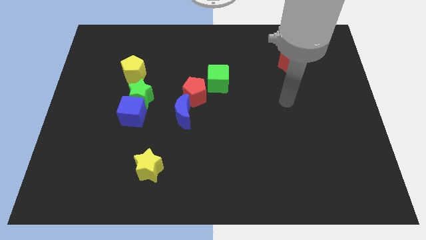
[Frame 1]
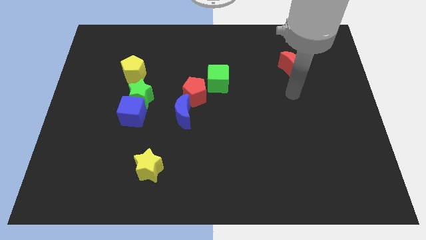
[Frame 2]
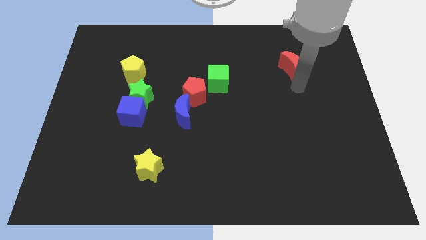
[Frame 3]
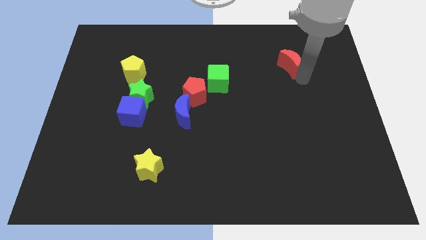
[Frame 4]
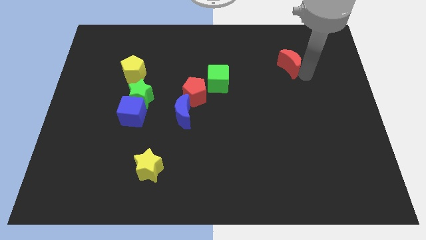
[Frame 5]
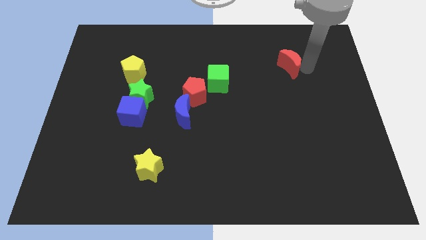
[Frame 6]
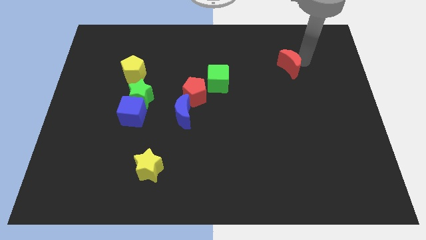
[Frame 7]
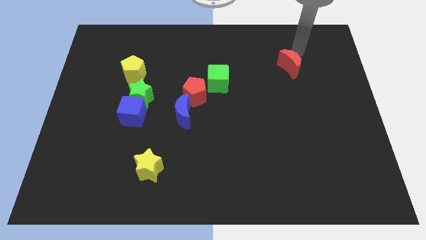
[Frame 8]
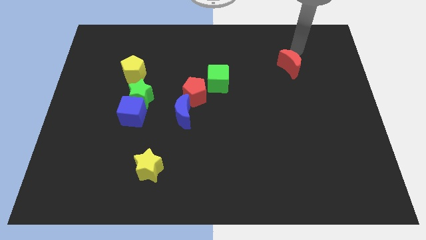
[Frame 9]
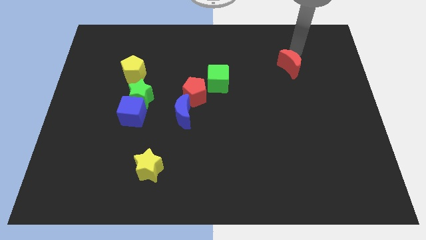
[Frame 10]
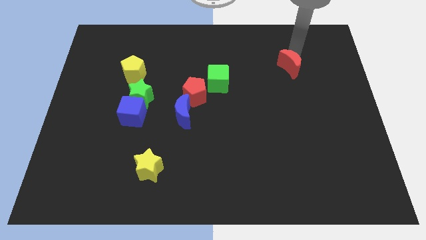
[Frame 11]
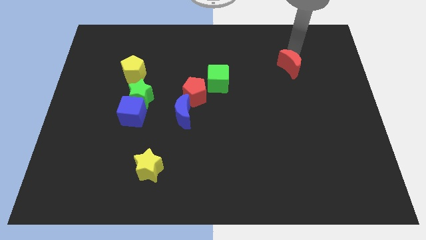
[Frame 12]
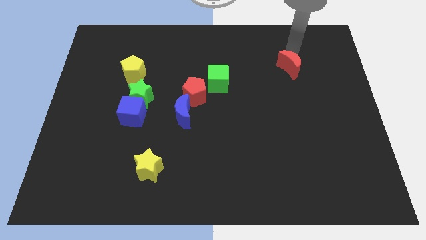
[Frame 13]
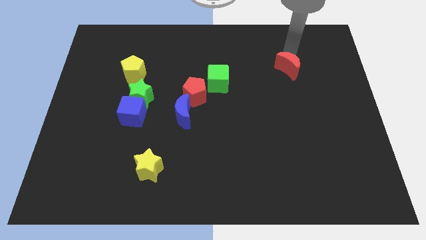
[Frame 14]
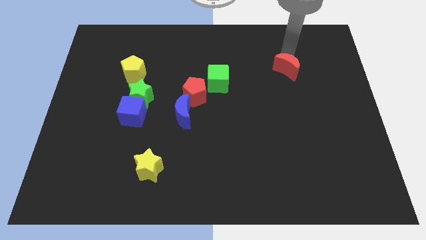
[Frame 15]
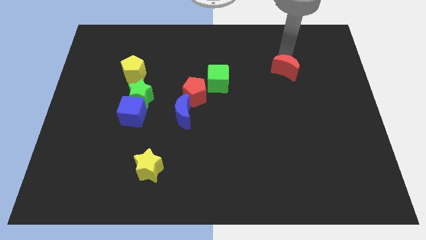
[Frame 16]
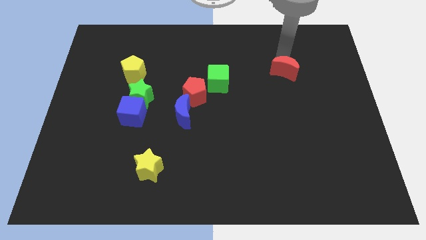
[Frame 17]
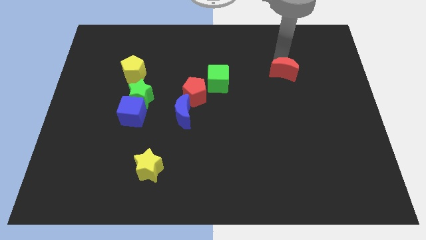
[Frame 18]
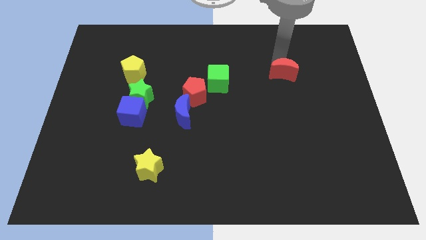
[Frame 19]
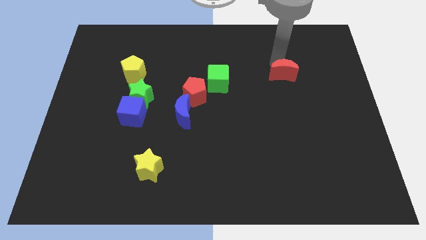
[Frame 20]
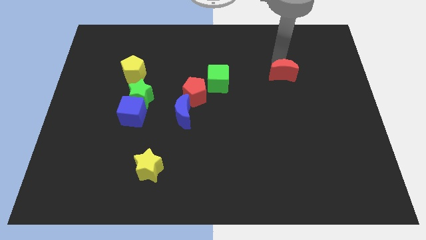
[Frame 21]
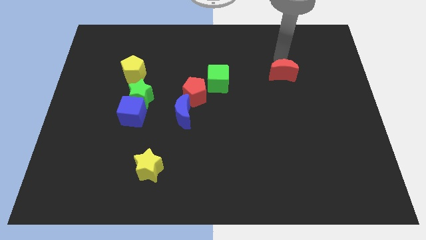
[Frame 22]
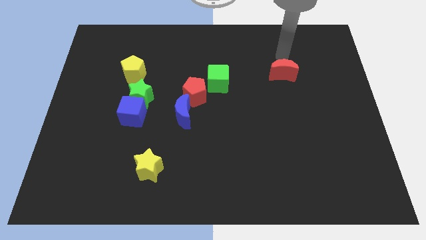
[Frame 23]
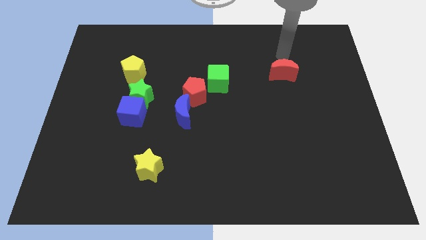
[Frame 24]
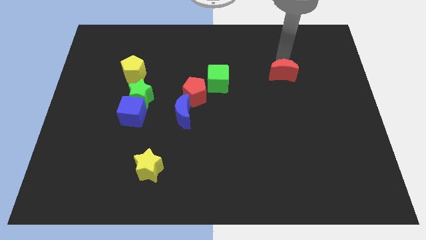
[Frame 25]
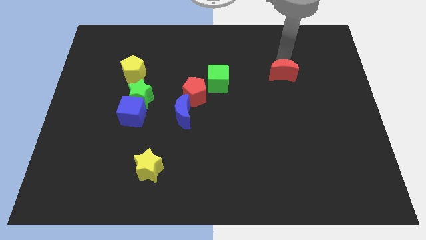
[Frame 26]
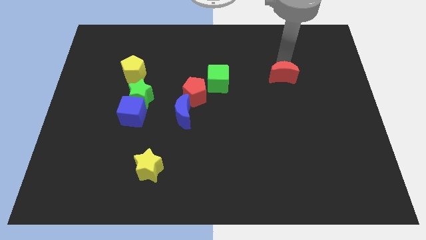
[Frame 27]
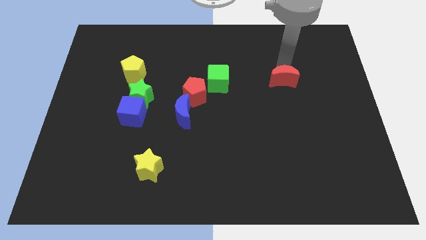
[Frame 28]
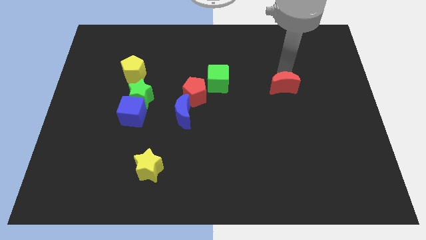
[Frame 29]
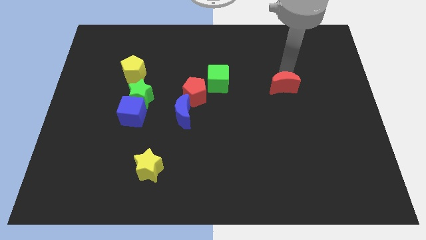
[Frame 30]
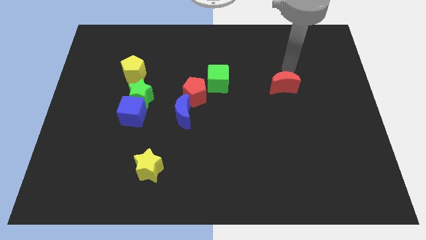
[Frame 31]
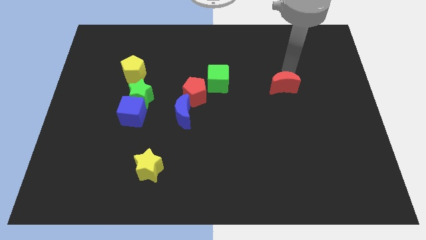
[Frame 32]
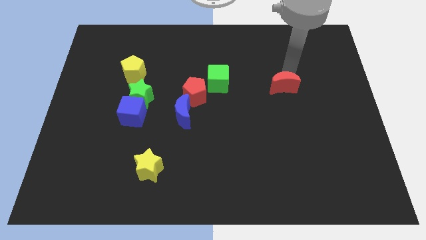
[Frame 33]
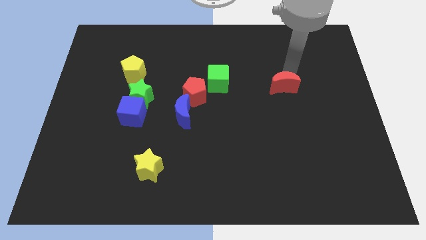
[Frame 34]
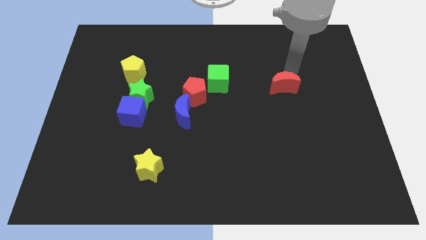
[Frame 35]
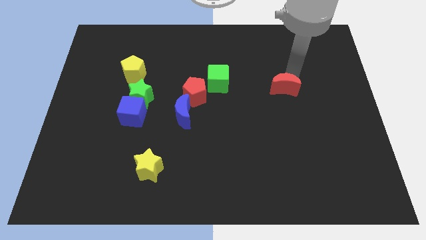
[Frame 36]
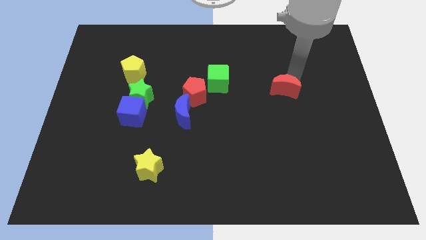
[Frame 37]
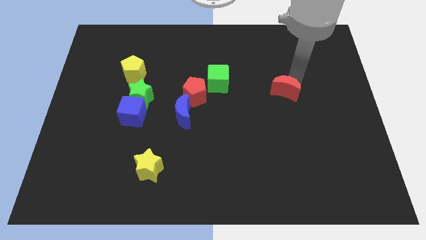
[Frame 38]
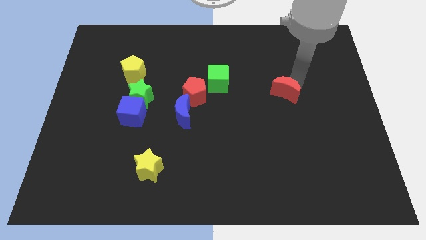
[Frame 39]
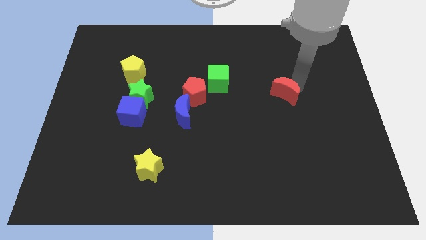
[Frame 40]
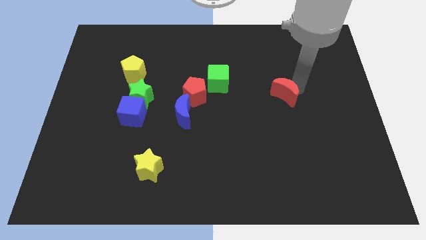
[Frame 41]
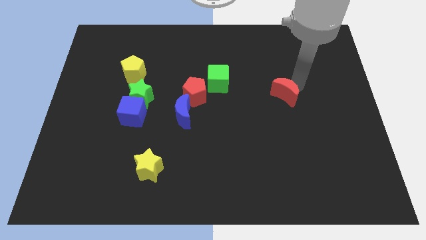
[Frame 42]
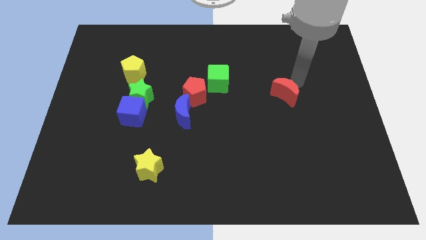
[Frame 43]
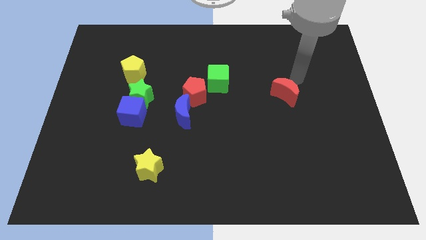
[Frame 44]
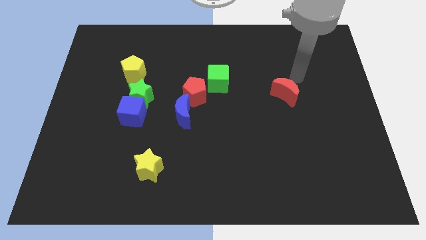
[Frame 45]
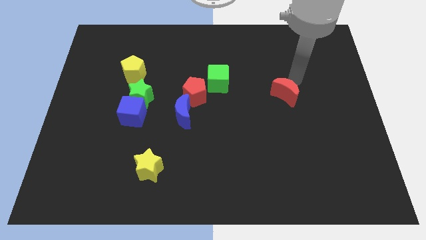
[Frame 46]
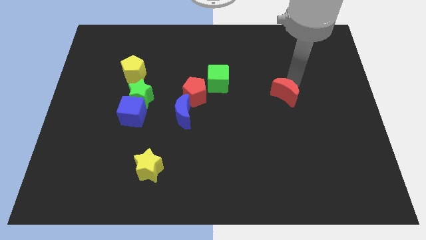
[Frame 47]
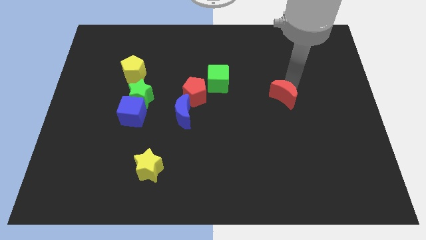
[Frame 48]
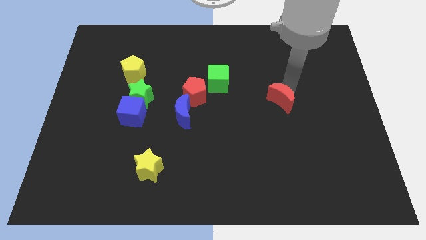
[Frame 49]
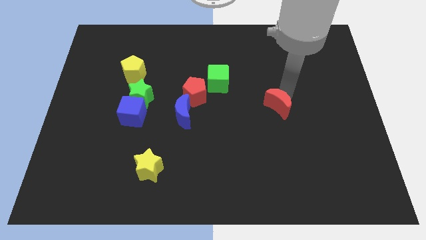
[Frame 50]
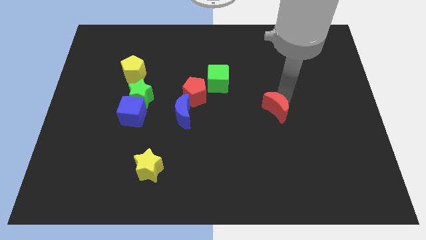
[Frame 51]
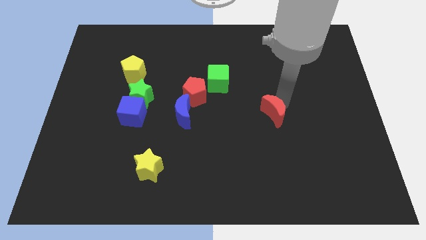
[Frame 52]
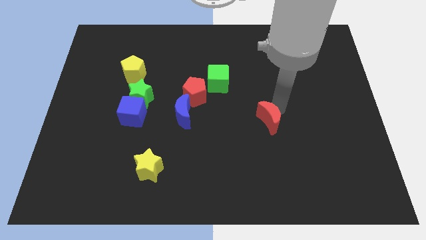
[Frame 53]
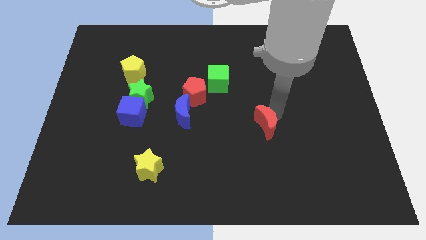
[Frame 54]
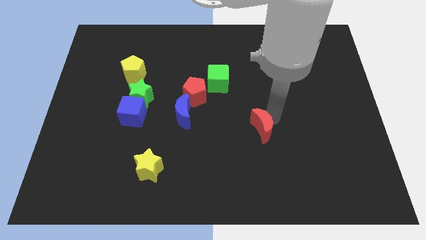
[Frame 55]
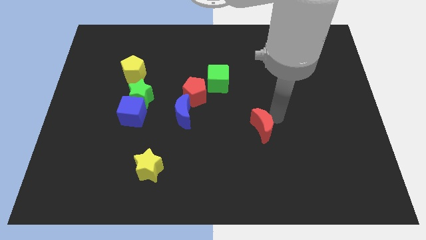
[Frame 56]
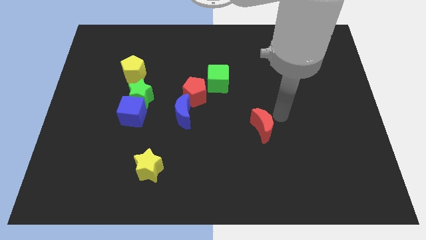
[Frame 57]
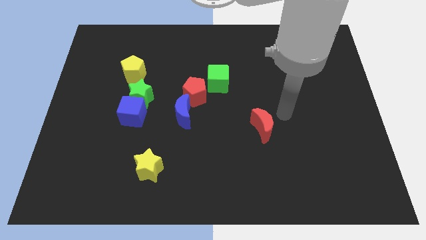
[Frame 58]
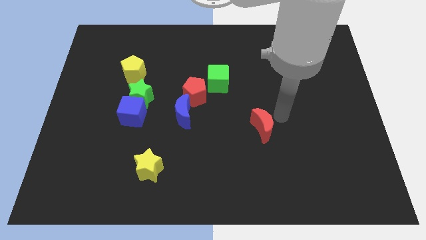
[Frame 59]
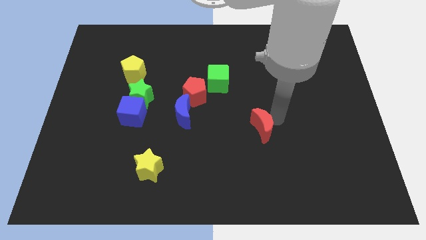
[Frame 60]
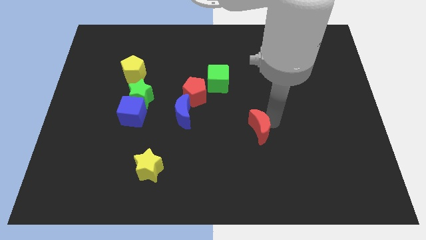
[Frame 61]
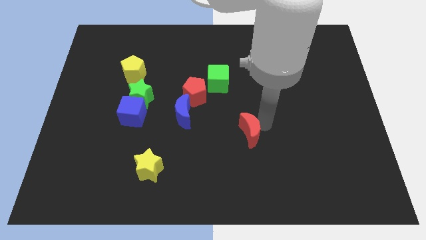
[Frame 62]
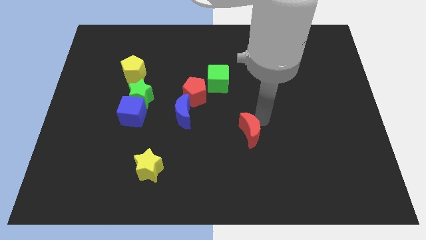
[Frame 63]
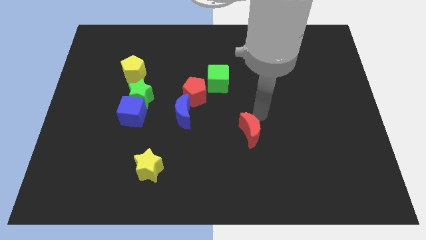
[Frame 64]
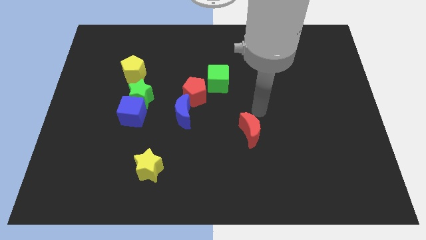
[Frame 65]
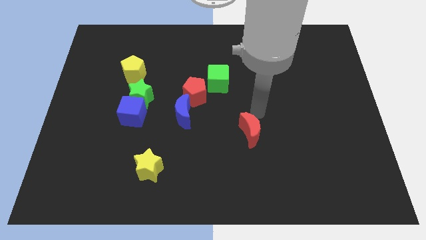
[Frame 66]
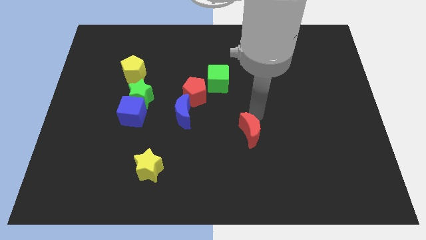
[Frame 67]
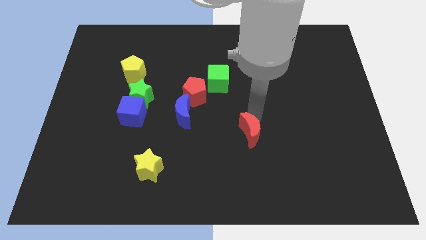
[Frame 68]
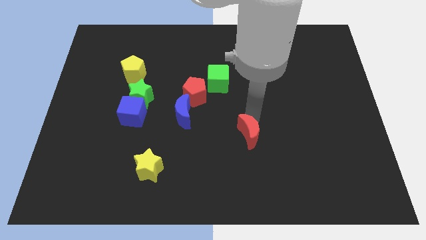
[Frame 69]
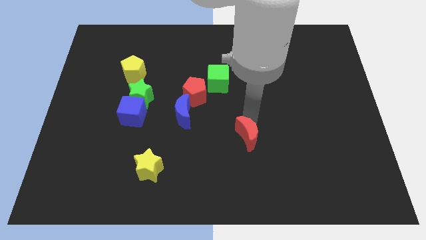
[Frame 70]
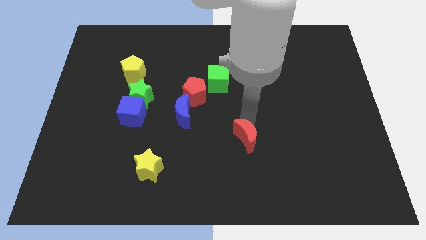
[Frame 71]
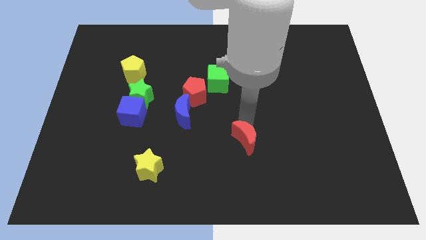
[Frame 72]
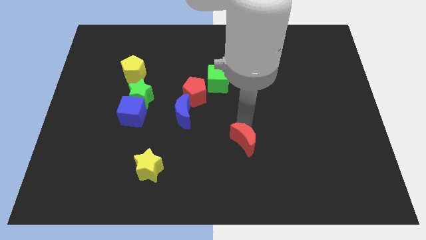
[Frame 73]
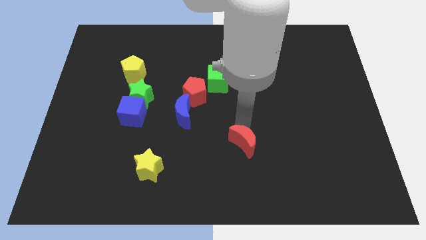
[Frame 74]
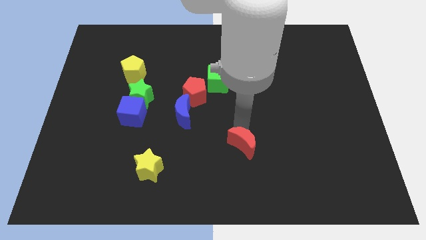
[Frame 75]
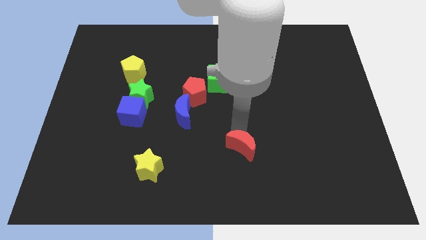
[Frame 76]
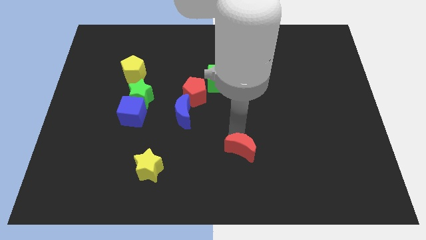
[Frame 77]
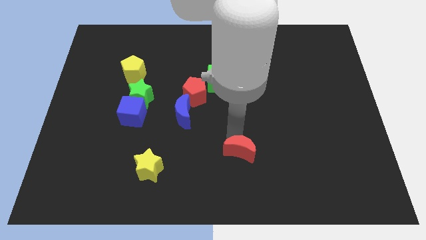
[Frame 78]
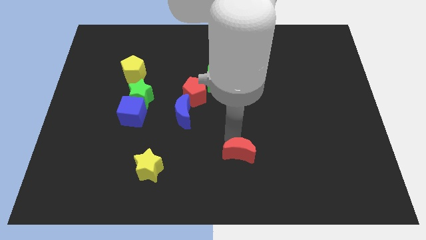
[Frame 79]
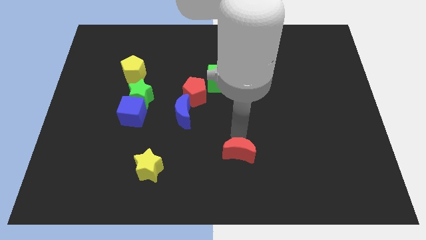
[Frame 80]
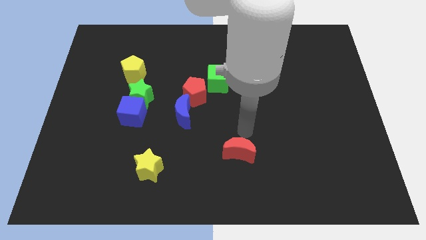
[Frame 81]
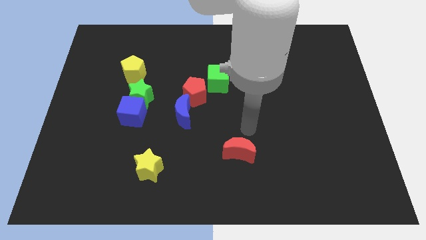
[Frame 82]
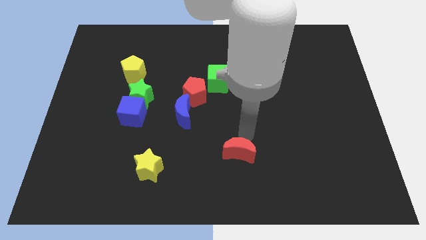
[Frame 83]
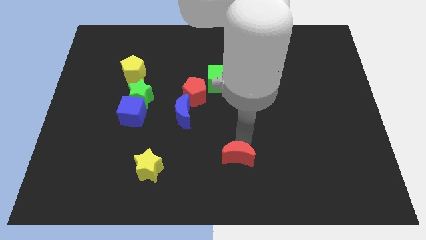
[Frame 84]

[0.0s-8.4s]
move the red moon to the bottom side
